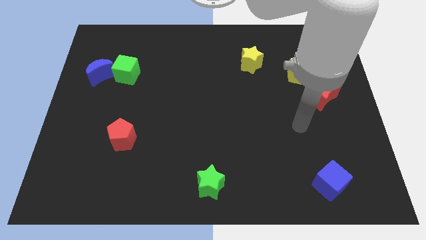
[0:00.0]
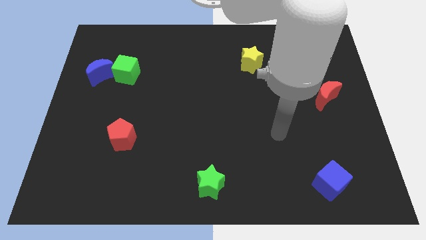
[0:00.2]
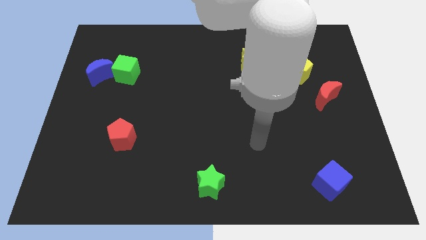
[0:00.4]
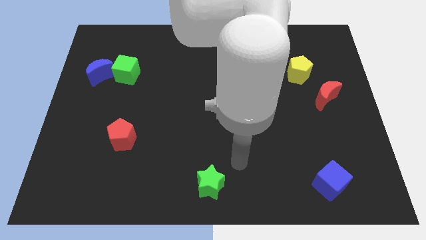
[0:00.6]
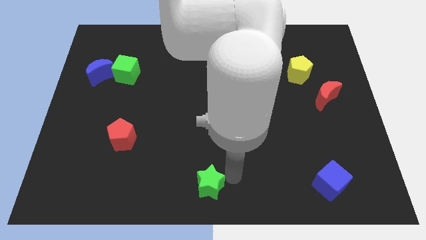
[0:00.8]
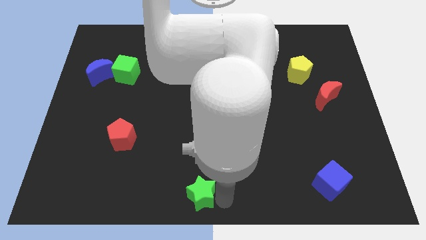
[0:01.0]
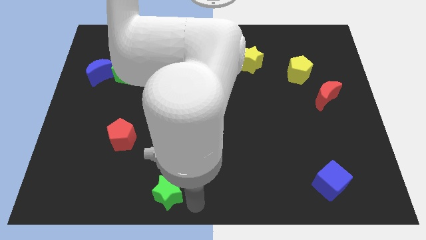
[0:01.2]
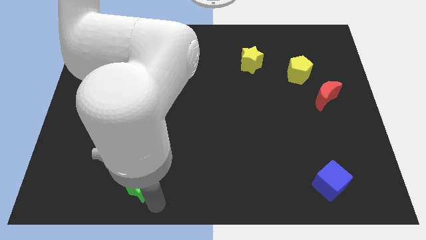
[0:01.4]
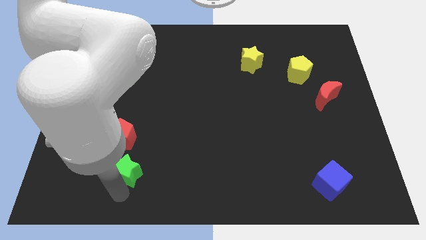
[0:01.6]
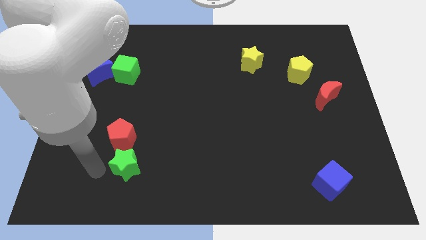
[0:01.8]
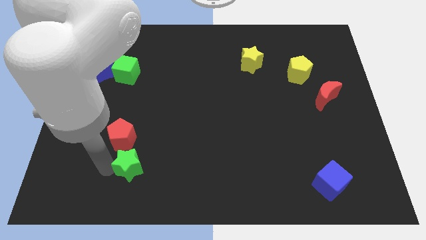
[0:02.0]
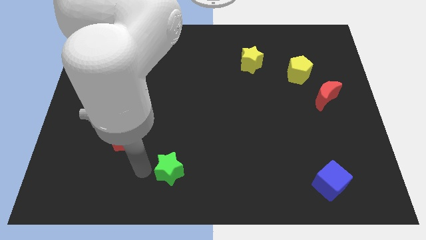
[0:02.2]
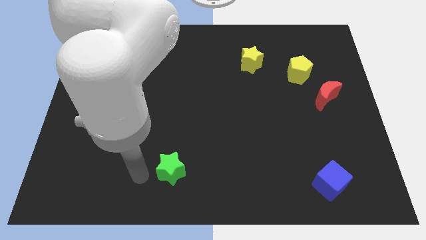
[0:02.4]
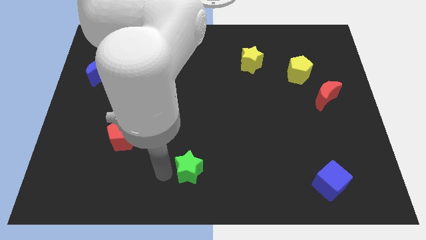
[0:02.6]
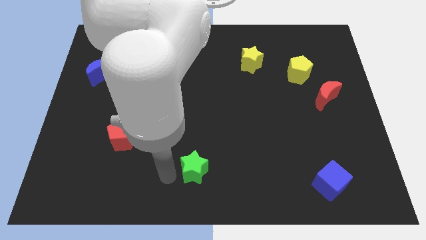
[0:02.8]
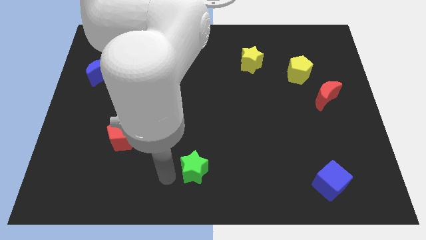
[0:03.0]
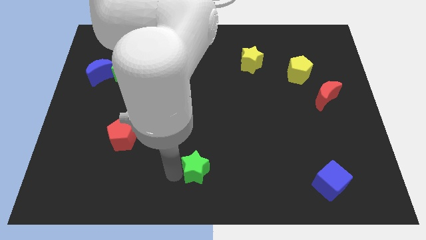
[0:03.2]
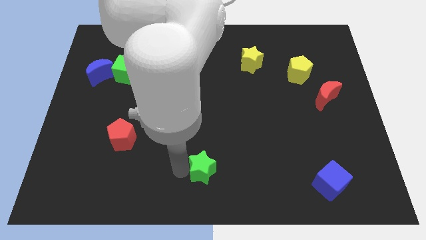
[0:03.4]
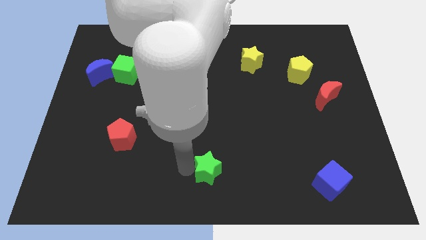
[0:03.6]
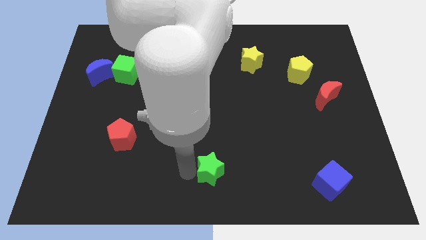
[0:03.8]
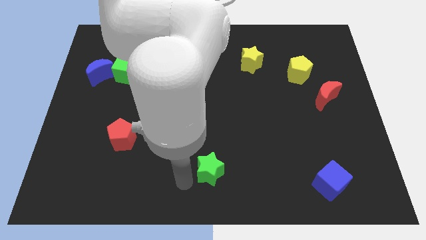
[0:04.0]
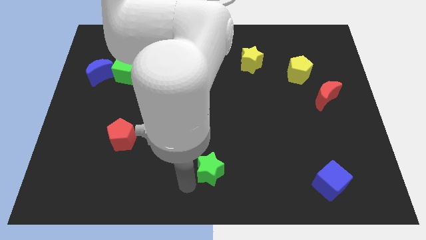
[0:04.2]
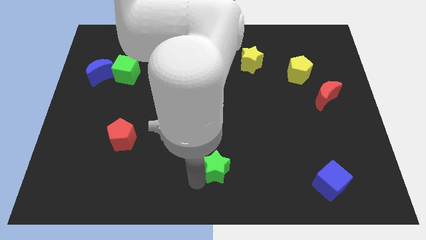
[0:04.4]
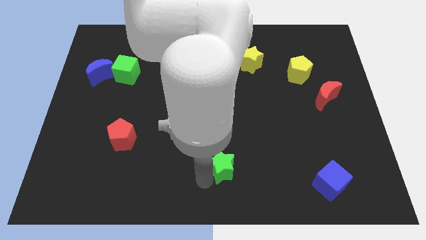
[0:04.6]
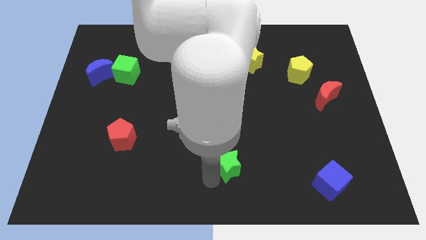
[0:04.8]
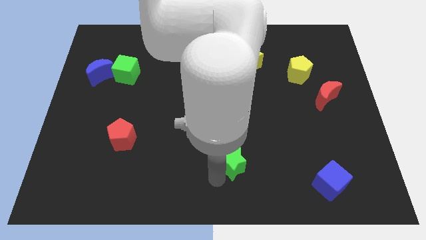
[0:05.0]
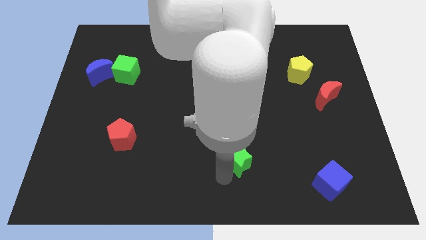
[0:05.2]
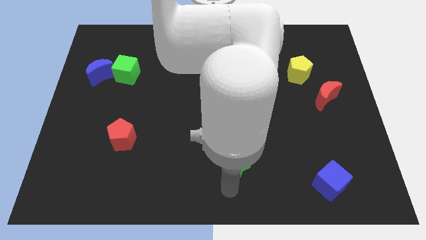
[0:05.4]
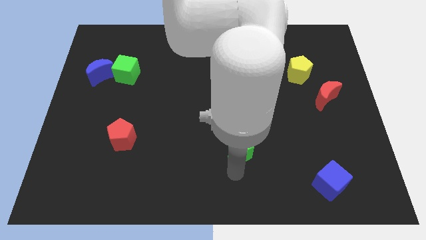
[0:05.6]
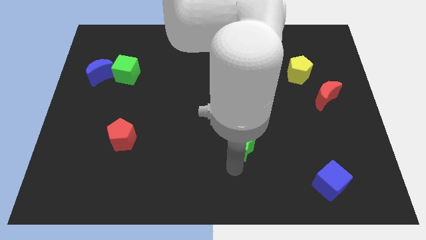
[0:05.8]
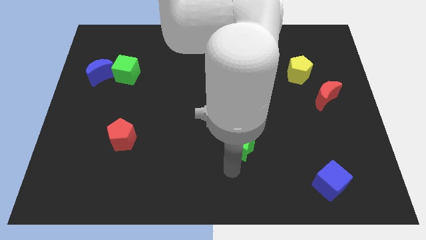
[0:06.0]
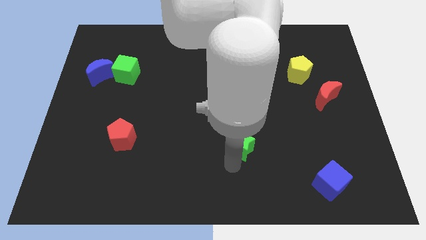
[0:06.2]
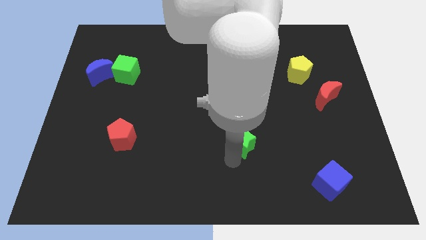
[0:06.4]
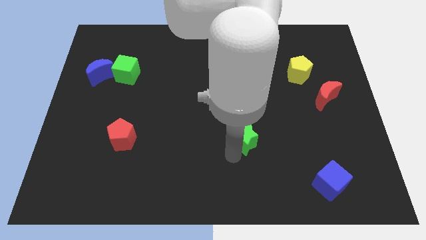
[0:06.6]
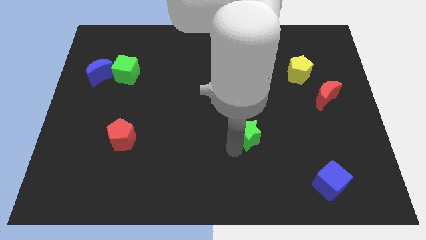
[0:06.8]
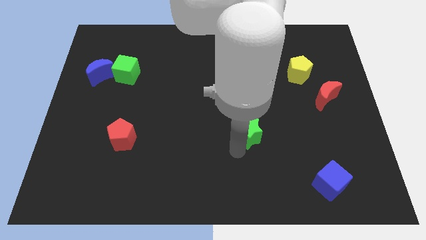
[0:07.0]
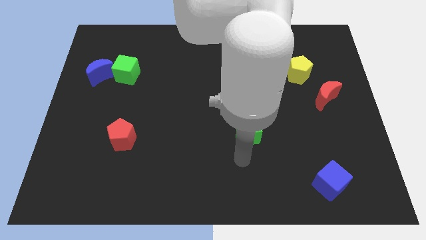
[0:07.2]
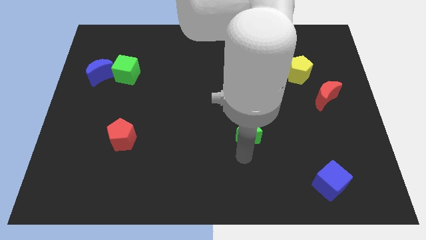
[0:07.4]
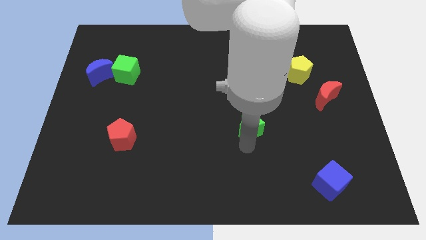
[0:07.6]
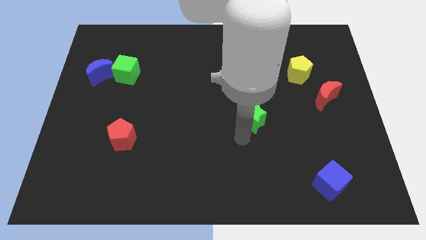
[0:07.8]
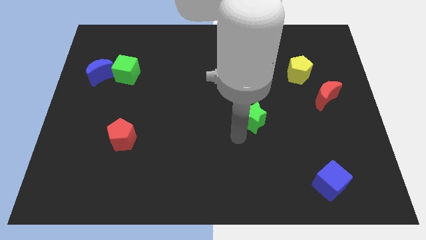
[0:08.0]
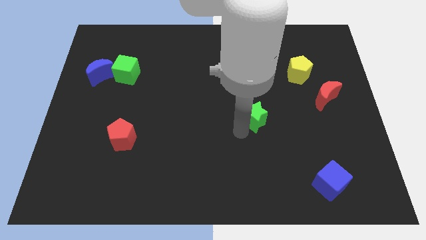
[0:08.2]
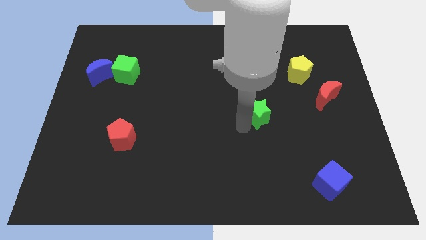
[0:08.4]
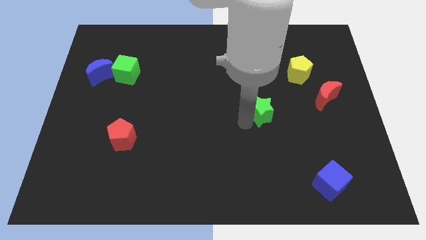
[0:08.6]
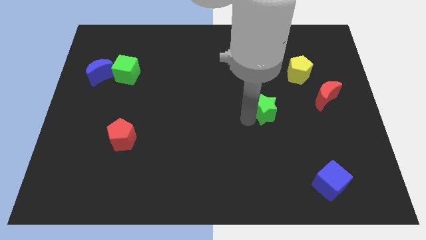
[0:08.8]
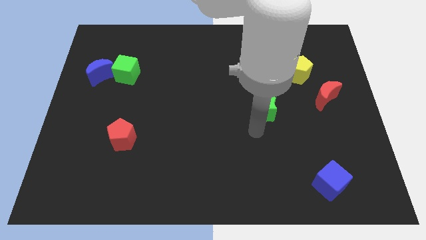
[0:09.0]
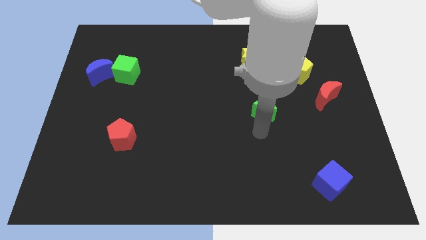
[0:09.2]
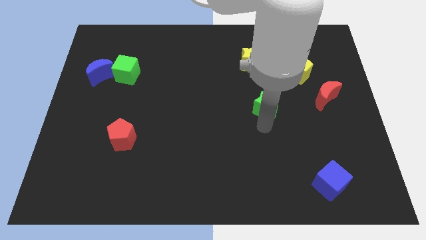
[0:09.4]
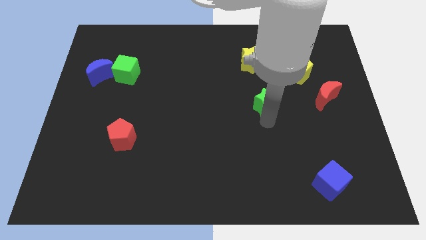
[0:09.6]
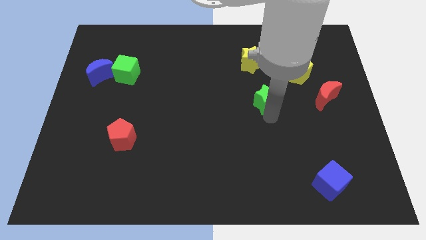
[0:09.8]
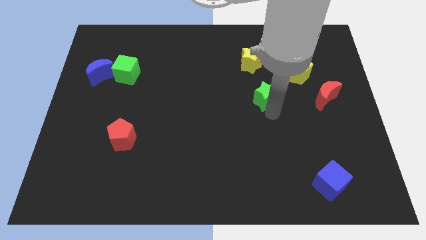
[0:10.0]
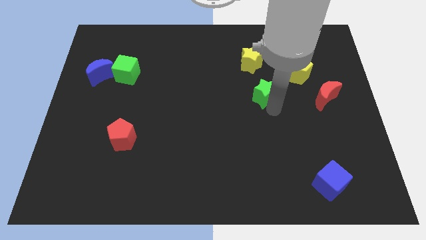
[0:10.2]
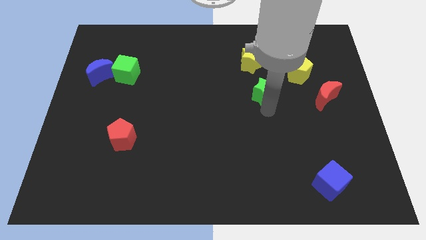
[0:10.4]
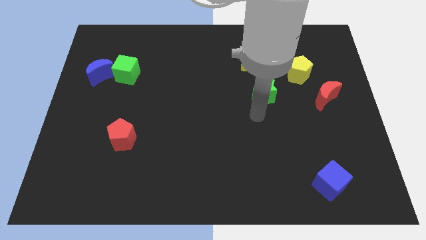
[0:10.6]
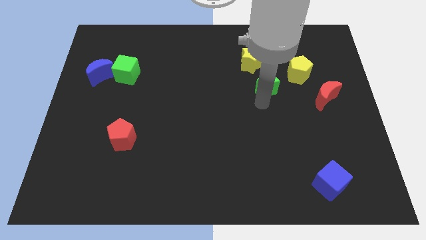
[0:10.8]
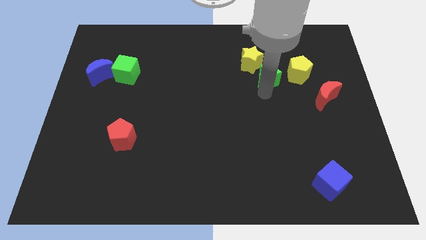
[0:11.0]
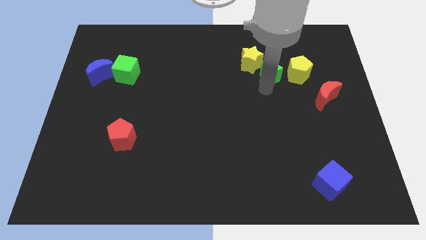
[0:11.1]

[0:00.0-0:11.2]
move the green star just right of the yellow star

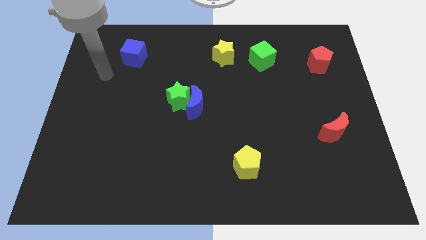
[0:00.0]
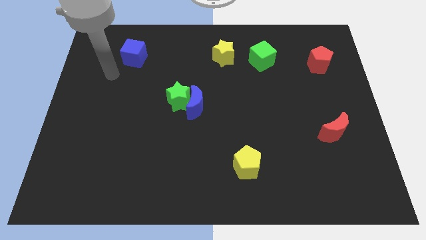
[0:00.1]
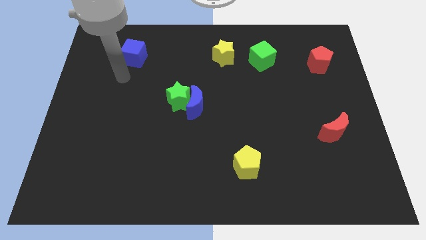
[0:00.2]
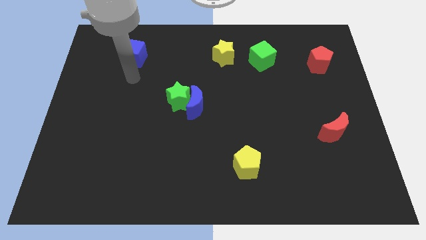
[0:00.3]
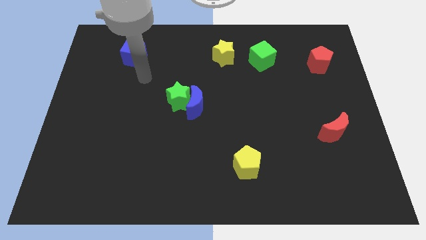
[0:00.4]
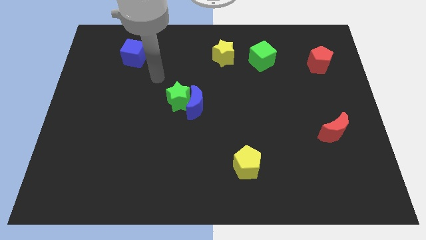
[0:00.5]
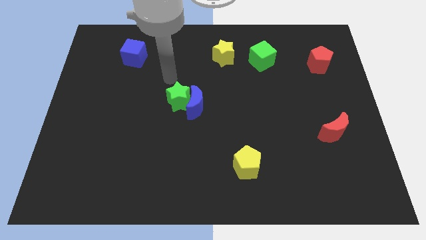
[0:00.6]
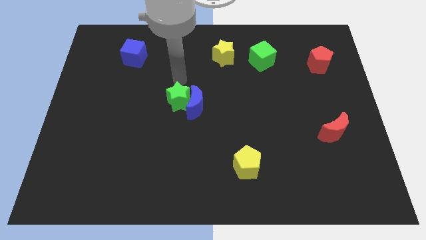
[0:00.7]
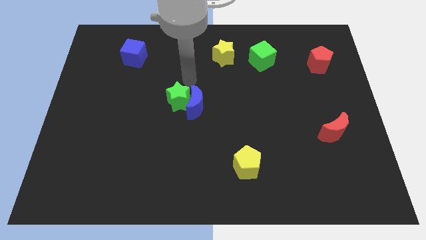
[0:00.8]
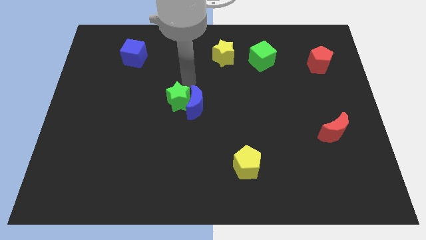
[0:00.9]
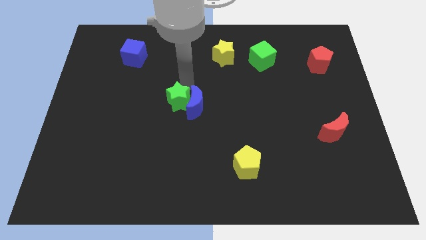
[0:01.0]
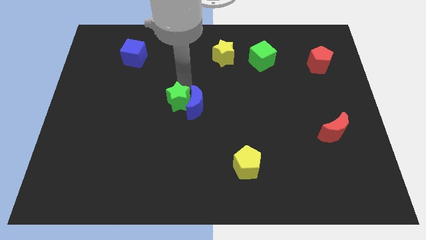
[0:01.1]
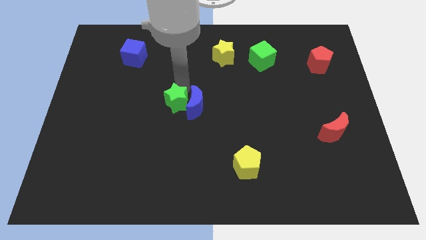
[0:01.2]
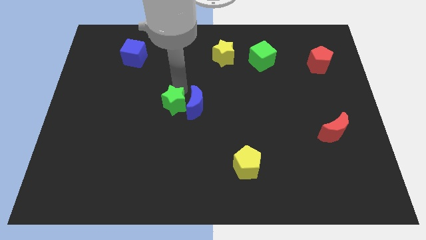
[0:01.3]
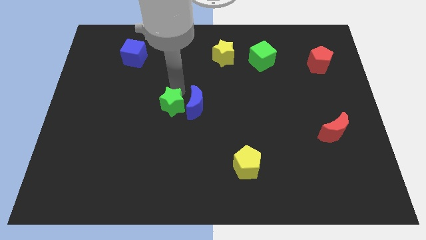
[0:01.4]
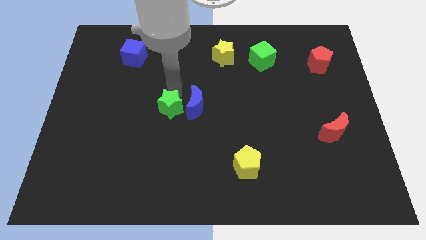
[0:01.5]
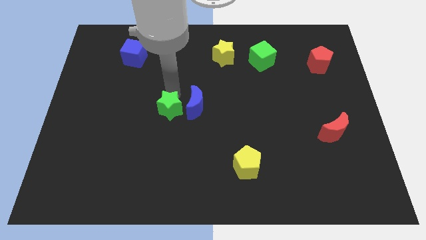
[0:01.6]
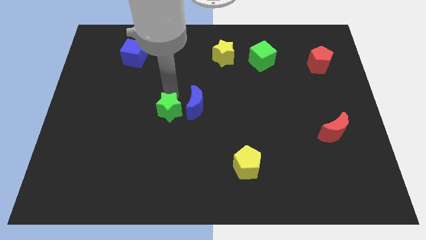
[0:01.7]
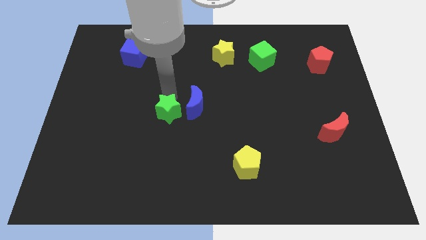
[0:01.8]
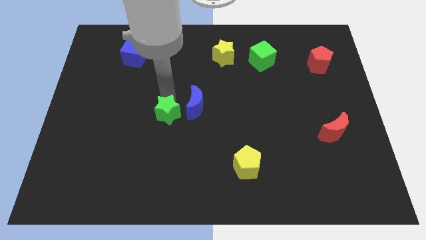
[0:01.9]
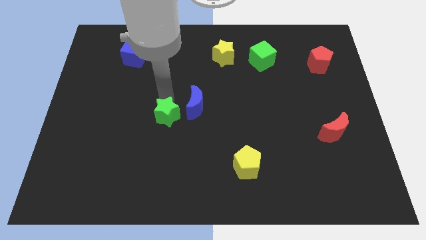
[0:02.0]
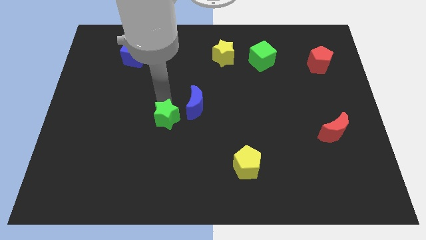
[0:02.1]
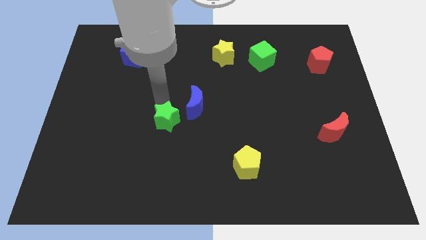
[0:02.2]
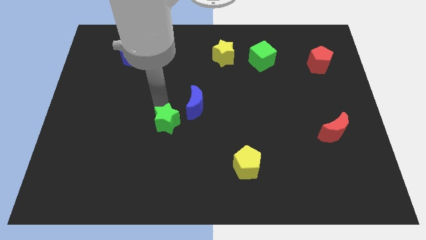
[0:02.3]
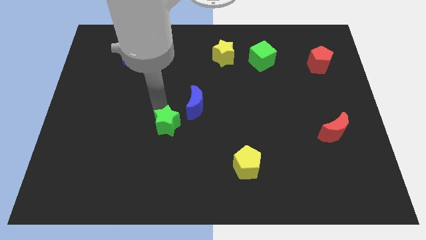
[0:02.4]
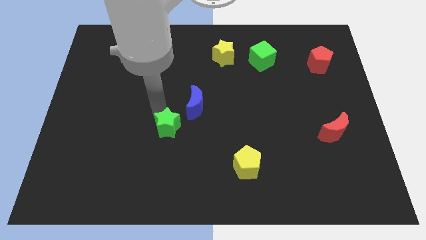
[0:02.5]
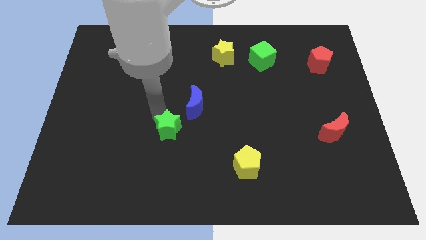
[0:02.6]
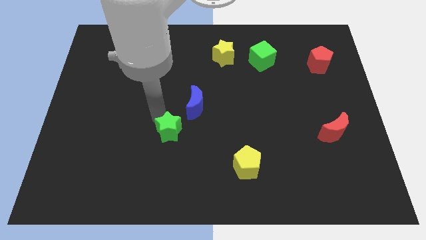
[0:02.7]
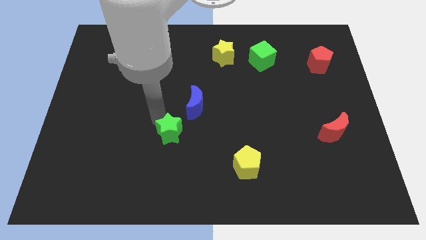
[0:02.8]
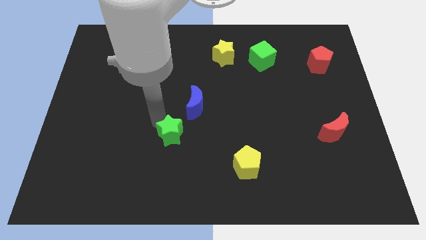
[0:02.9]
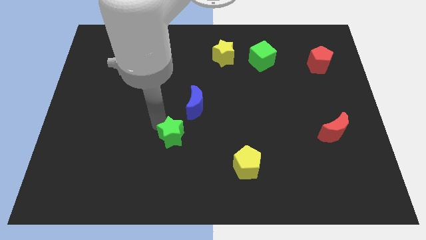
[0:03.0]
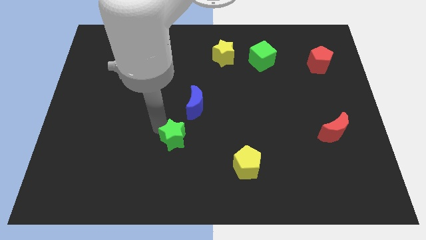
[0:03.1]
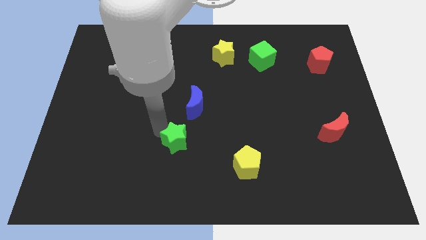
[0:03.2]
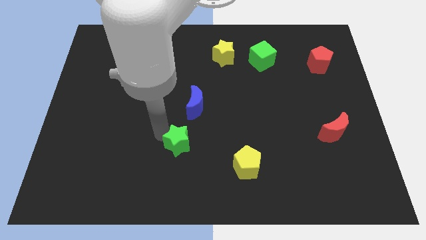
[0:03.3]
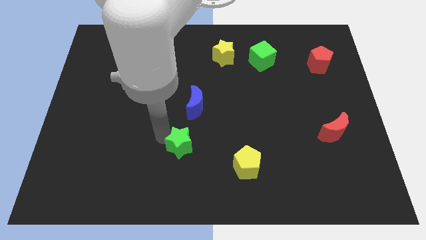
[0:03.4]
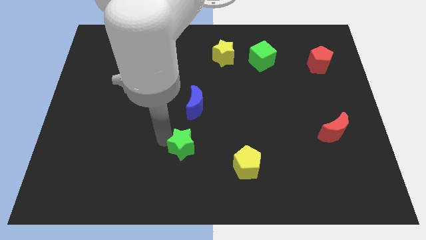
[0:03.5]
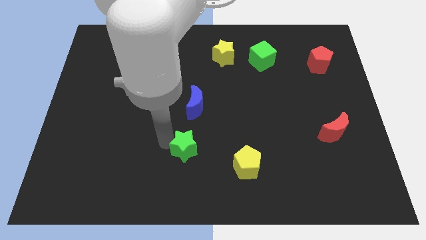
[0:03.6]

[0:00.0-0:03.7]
move the green star just left of the yellow pentagon
